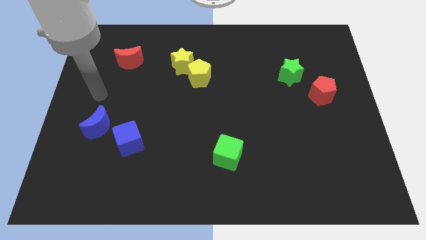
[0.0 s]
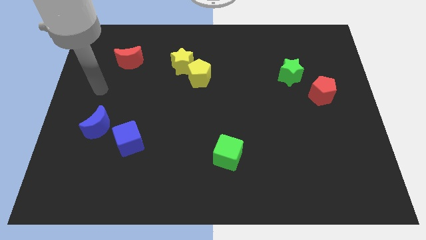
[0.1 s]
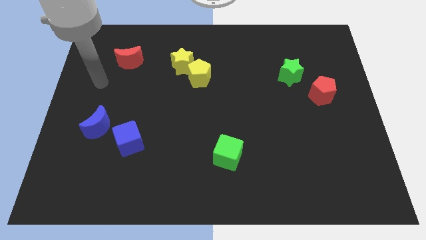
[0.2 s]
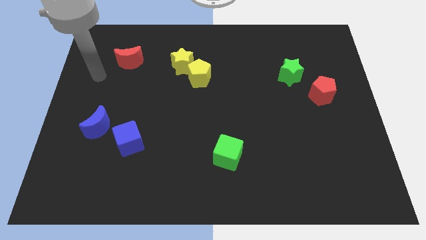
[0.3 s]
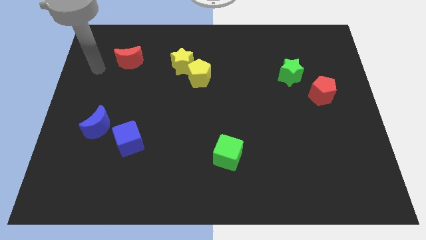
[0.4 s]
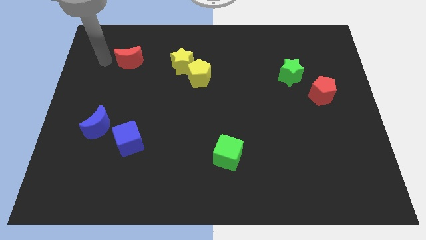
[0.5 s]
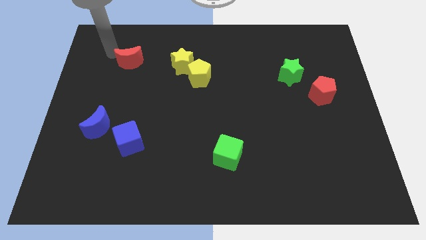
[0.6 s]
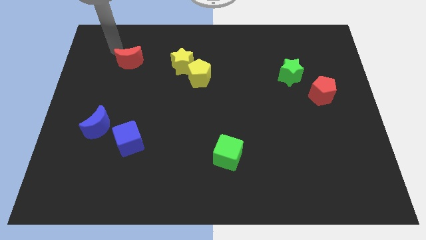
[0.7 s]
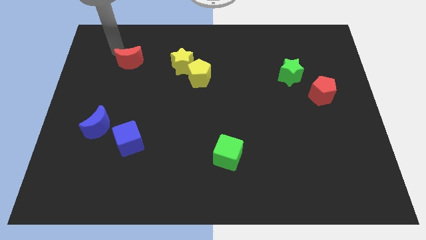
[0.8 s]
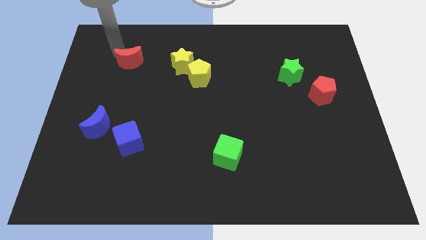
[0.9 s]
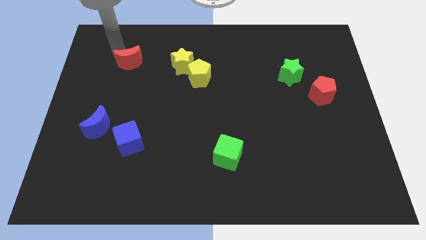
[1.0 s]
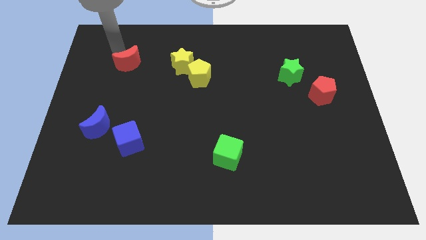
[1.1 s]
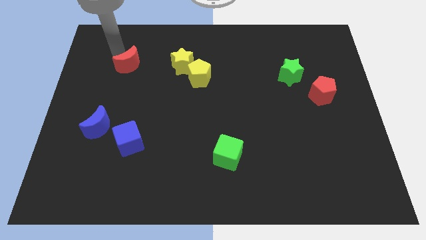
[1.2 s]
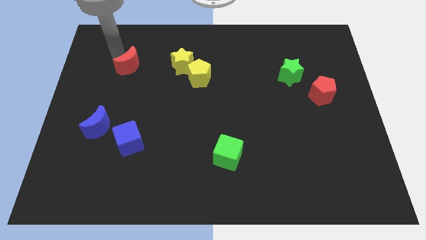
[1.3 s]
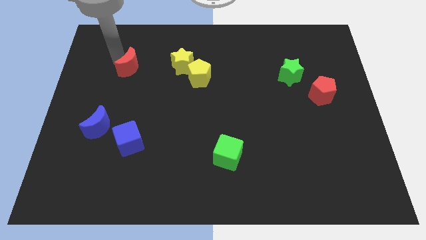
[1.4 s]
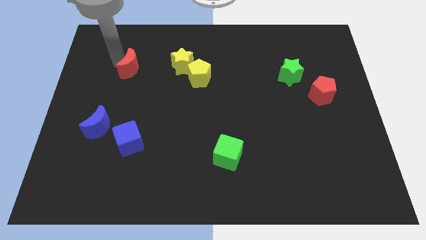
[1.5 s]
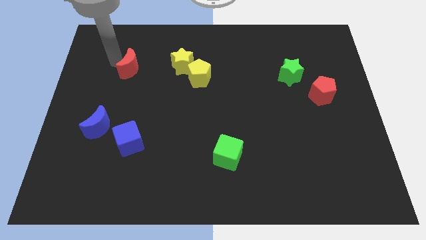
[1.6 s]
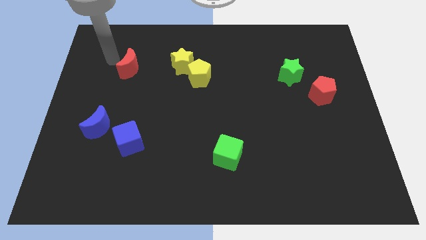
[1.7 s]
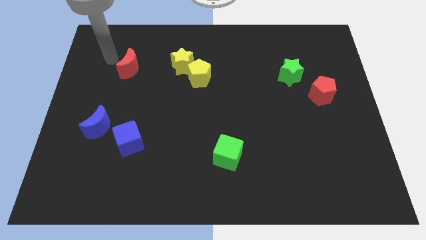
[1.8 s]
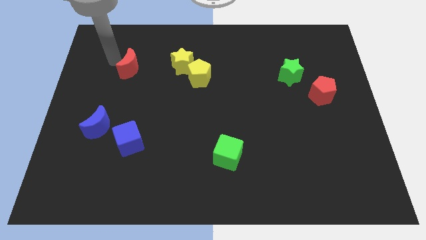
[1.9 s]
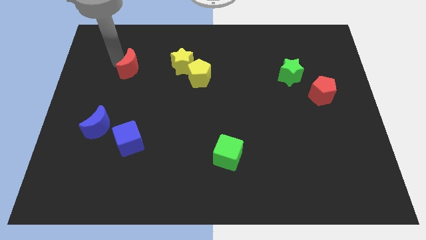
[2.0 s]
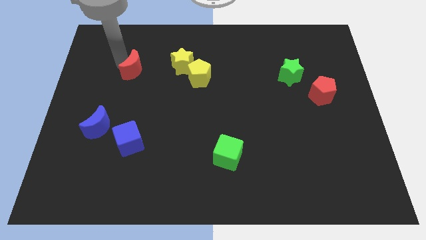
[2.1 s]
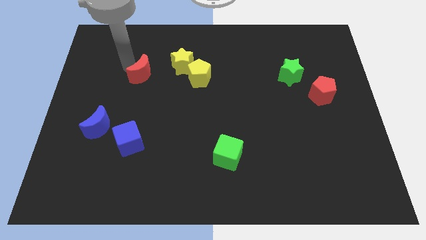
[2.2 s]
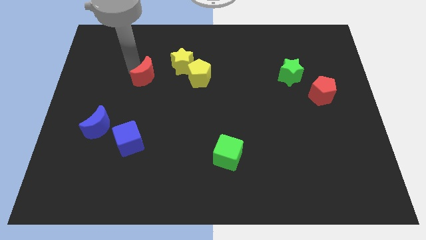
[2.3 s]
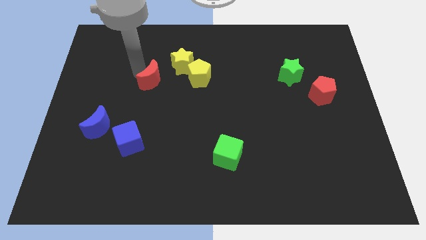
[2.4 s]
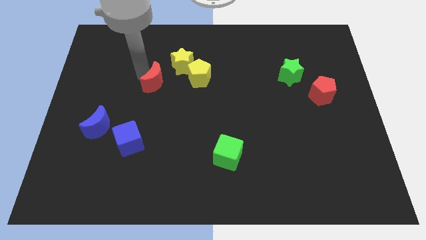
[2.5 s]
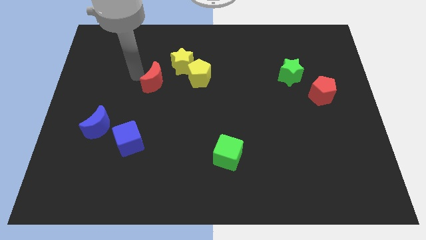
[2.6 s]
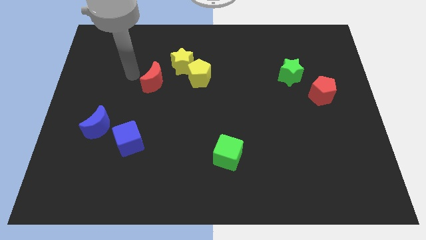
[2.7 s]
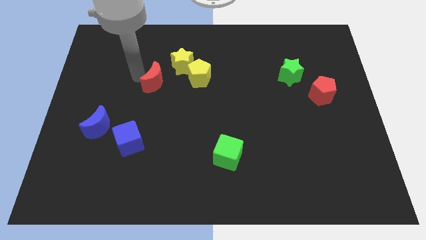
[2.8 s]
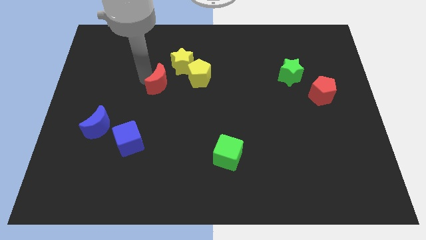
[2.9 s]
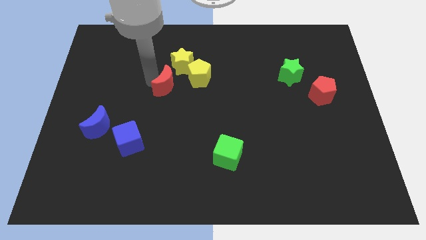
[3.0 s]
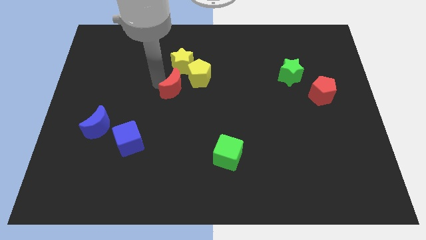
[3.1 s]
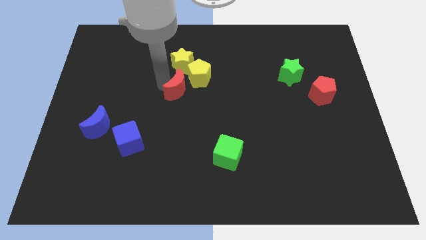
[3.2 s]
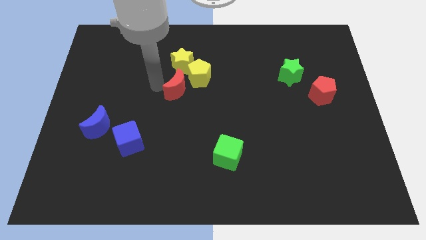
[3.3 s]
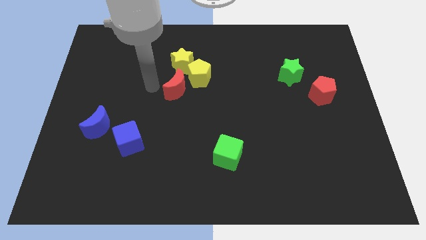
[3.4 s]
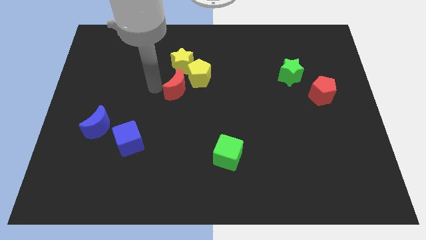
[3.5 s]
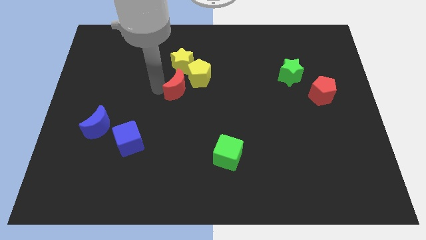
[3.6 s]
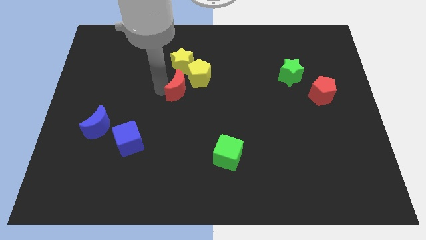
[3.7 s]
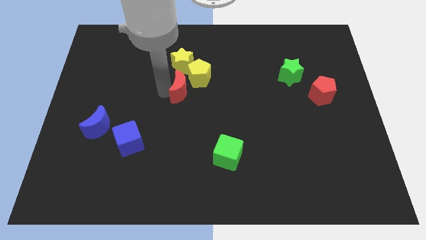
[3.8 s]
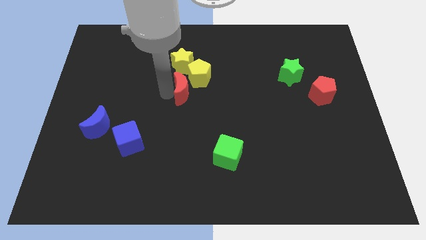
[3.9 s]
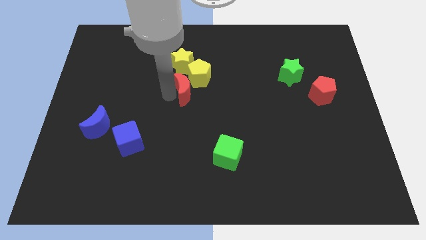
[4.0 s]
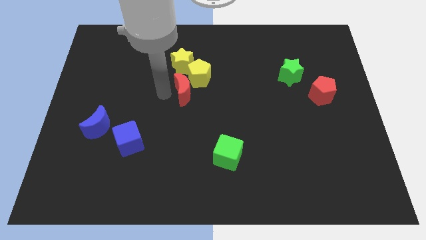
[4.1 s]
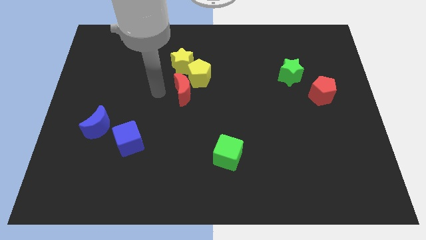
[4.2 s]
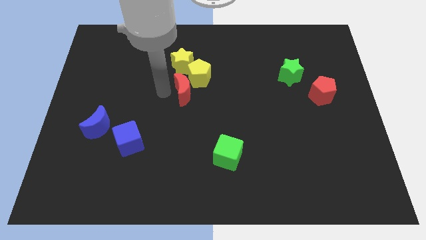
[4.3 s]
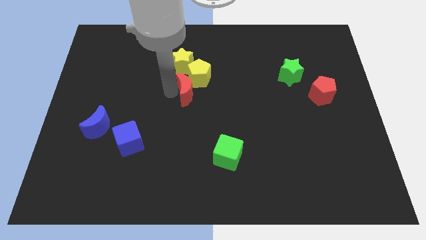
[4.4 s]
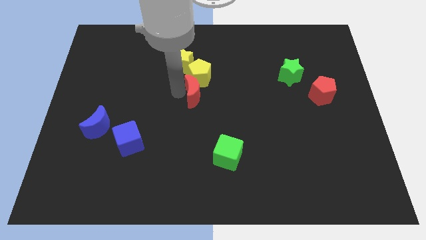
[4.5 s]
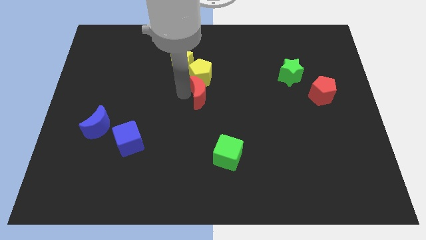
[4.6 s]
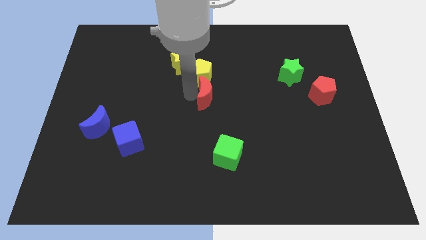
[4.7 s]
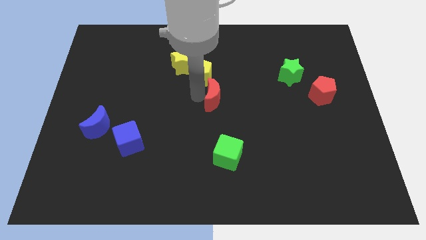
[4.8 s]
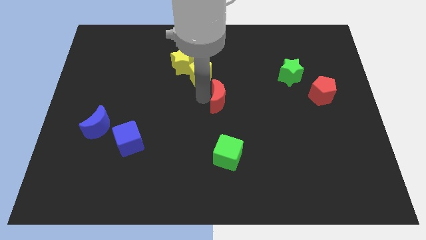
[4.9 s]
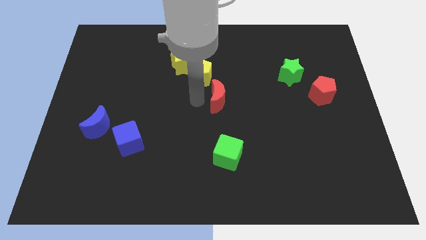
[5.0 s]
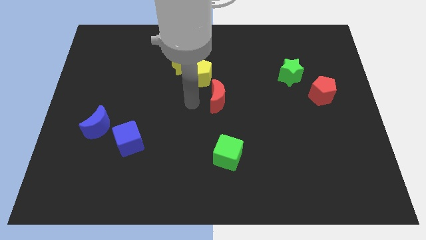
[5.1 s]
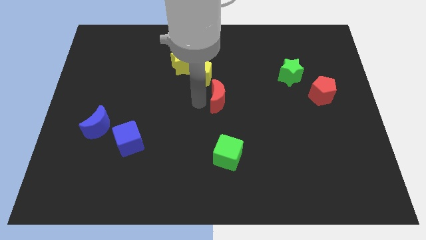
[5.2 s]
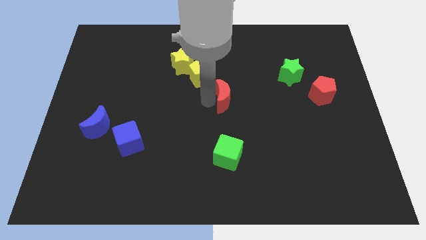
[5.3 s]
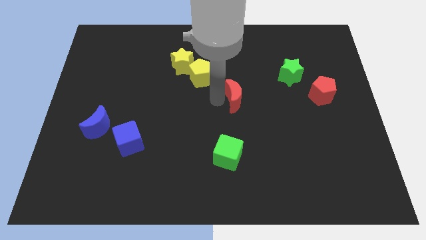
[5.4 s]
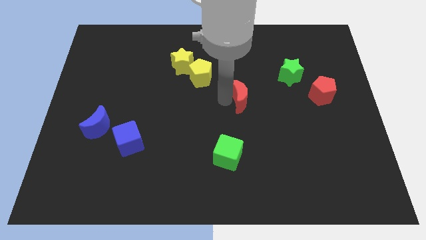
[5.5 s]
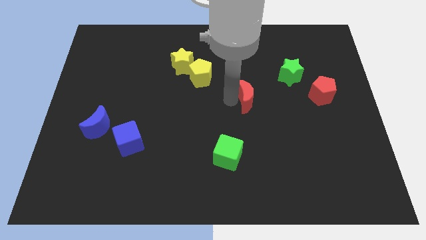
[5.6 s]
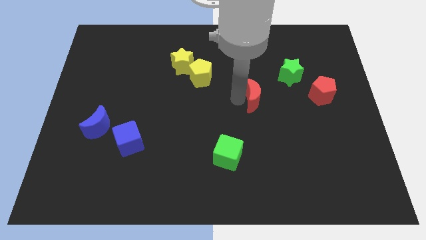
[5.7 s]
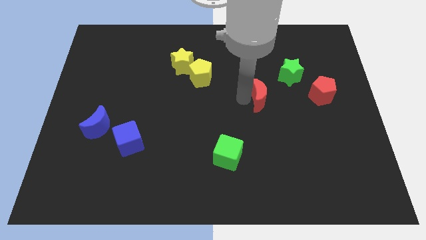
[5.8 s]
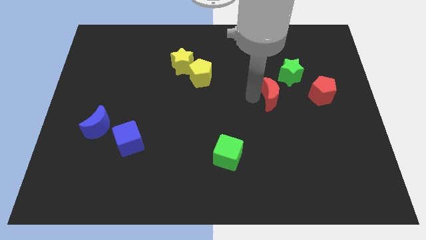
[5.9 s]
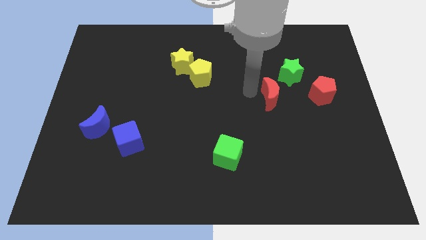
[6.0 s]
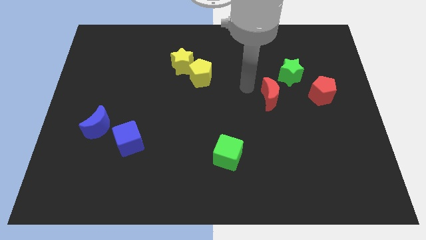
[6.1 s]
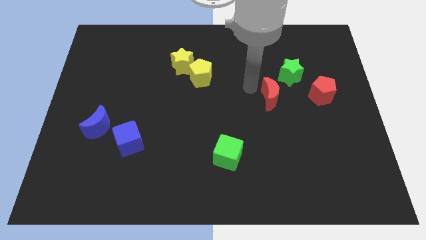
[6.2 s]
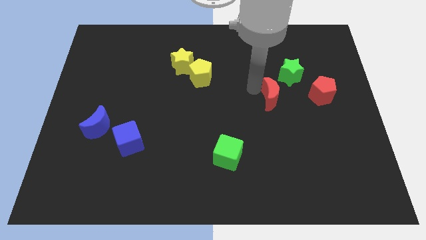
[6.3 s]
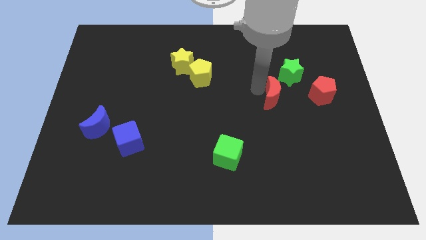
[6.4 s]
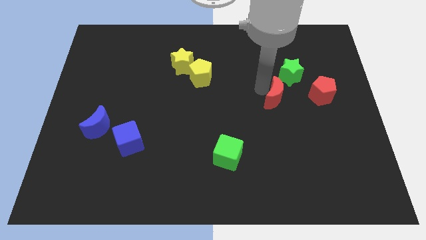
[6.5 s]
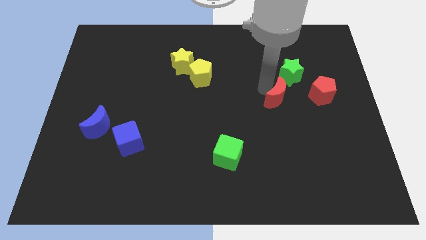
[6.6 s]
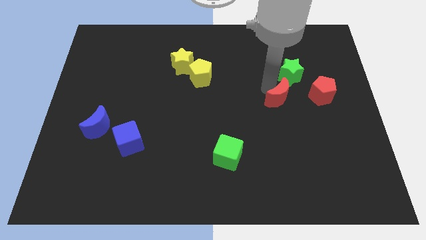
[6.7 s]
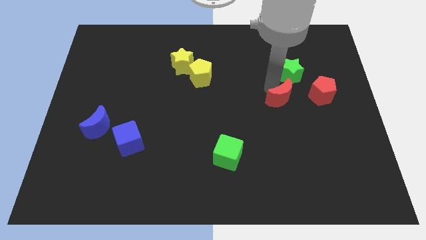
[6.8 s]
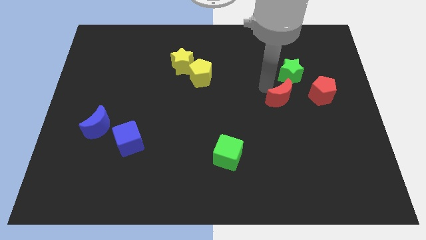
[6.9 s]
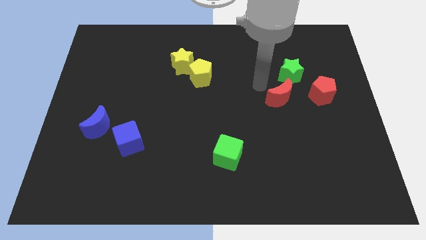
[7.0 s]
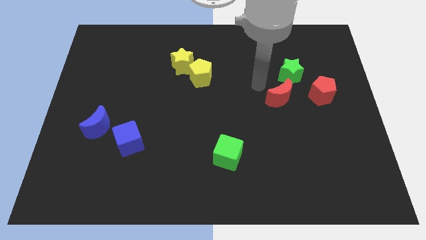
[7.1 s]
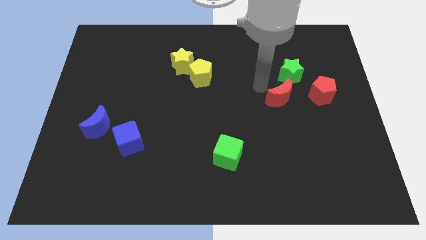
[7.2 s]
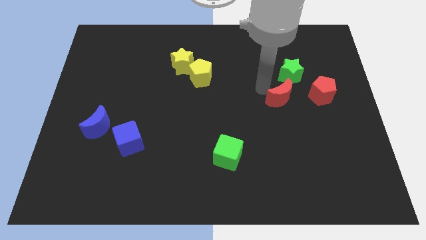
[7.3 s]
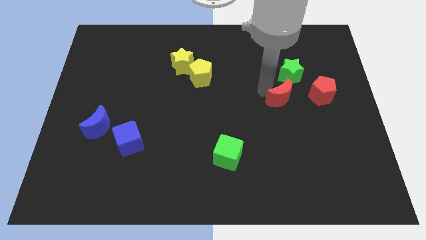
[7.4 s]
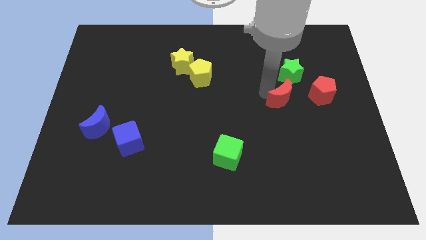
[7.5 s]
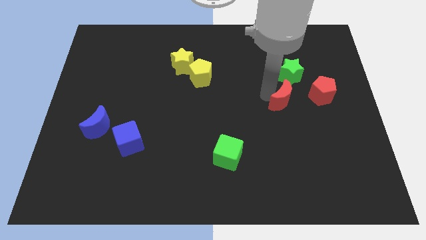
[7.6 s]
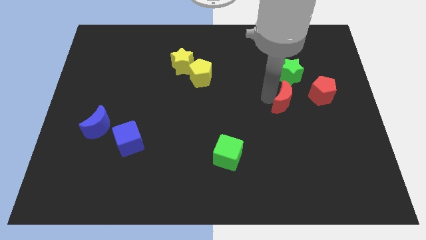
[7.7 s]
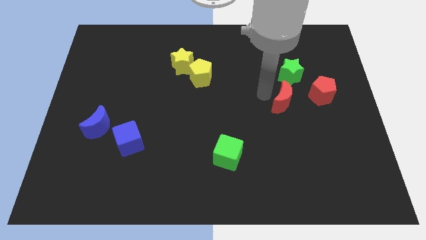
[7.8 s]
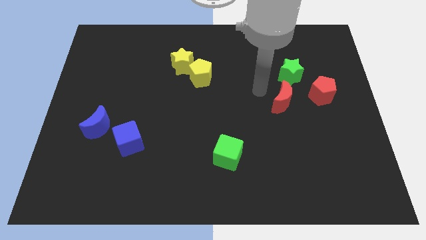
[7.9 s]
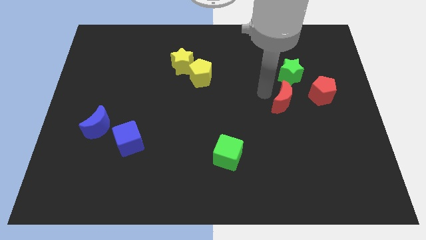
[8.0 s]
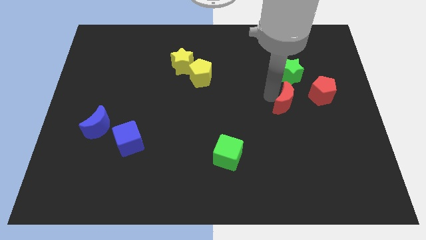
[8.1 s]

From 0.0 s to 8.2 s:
put the red moon diagonally down and to the left of the red pentagon
